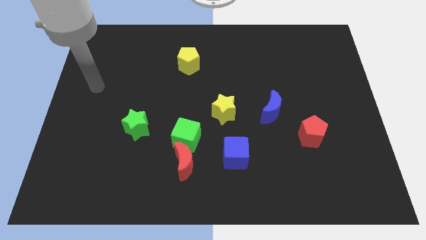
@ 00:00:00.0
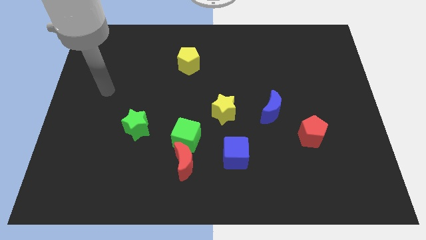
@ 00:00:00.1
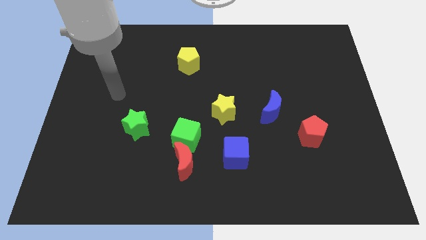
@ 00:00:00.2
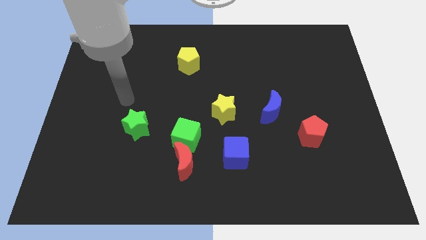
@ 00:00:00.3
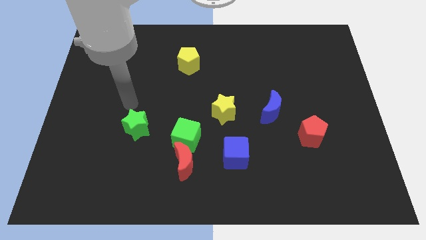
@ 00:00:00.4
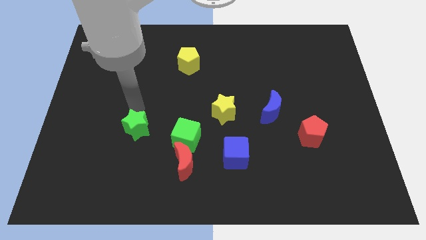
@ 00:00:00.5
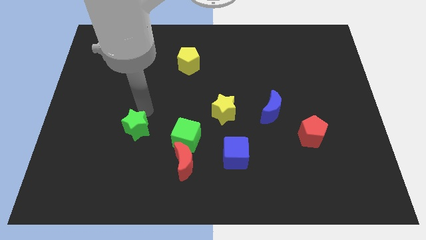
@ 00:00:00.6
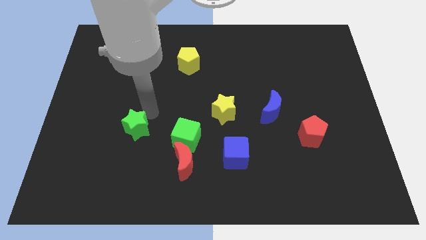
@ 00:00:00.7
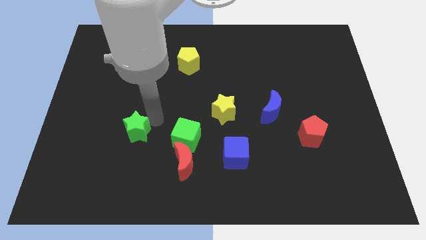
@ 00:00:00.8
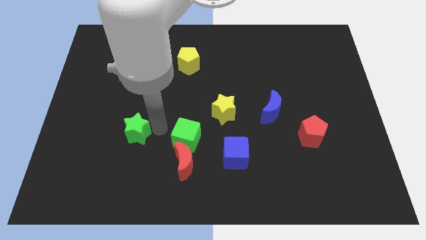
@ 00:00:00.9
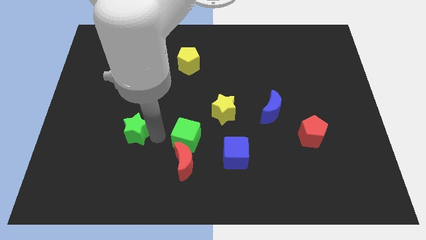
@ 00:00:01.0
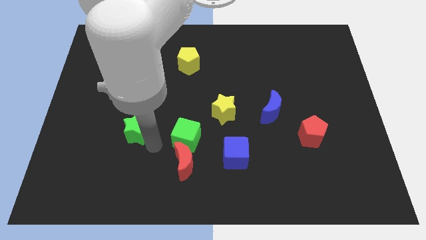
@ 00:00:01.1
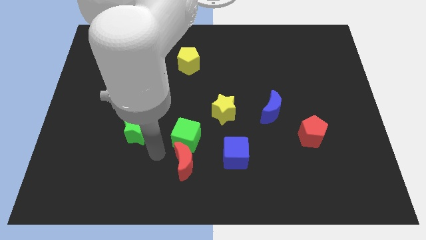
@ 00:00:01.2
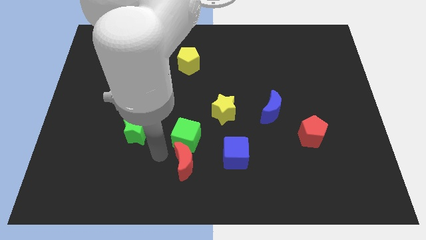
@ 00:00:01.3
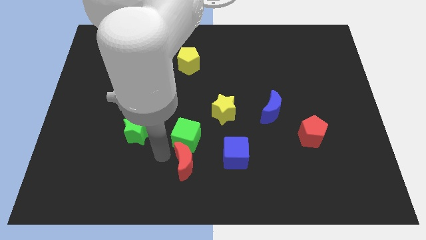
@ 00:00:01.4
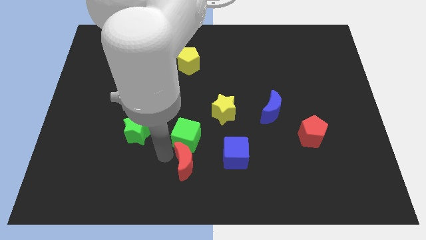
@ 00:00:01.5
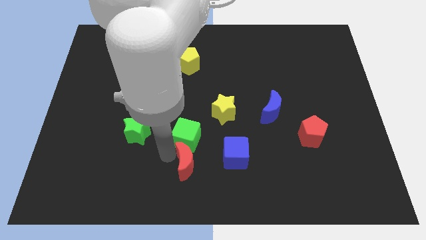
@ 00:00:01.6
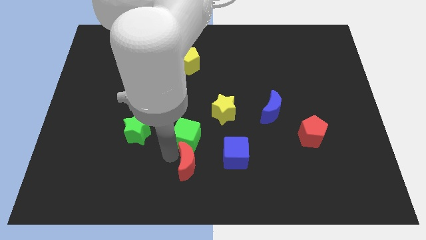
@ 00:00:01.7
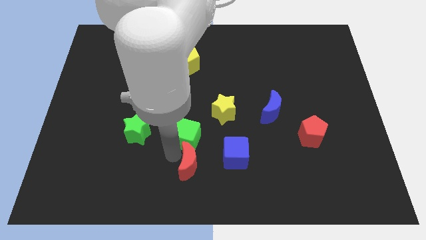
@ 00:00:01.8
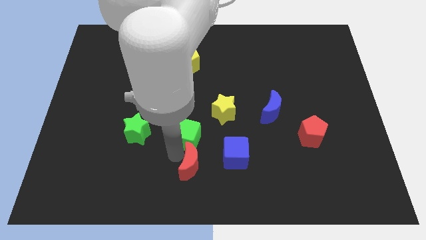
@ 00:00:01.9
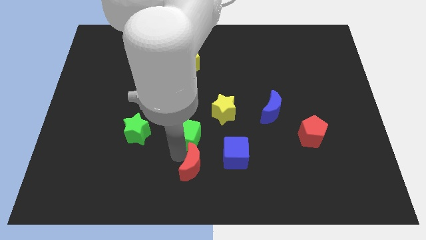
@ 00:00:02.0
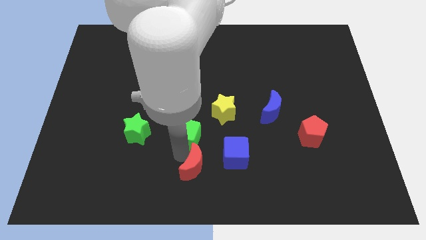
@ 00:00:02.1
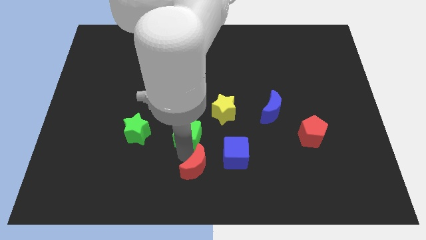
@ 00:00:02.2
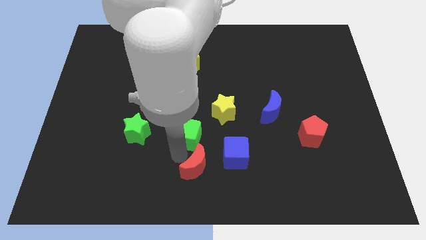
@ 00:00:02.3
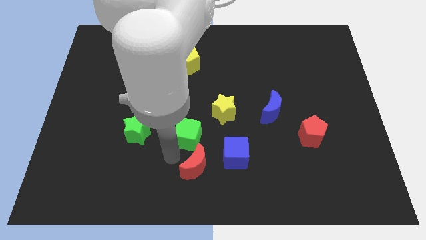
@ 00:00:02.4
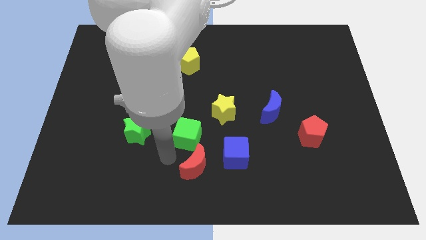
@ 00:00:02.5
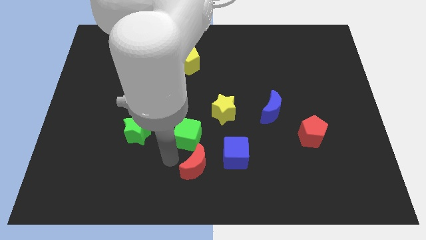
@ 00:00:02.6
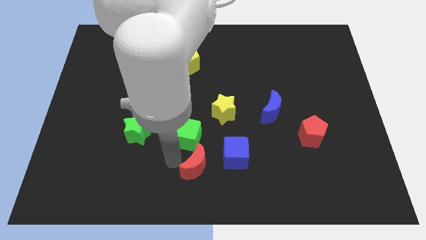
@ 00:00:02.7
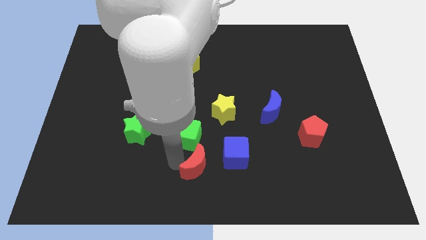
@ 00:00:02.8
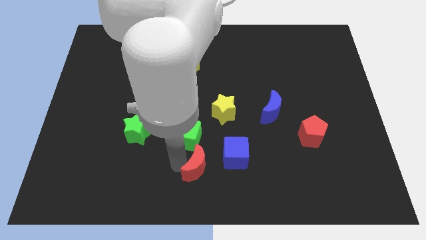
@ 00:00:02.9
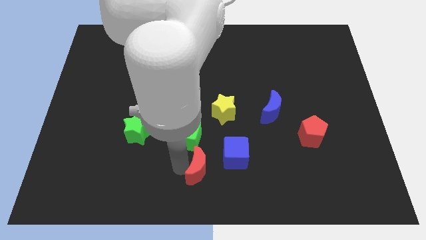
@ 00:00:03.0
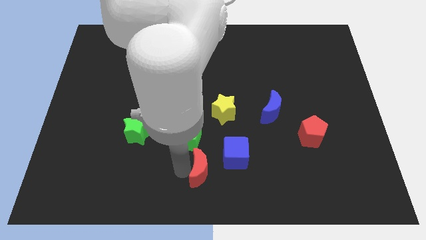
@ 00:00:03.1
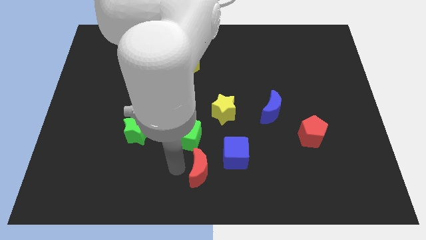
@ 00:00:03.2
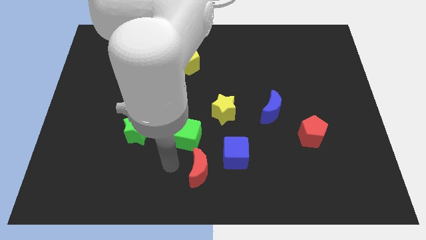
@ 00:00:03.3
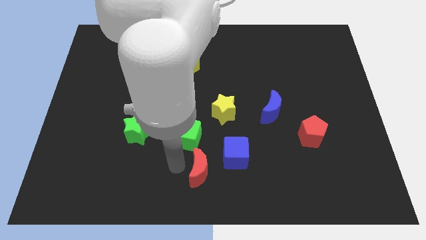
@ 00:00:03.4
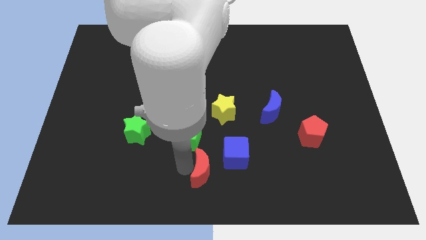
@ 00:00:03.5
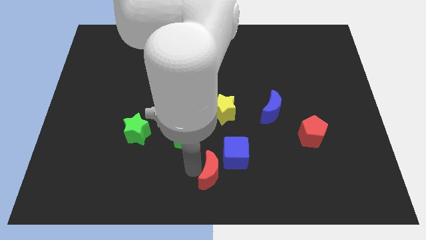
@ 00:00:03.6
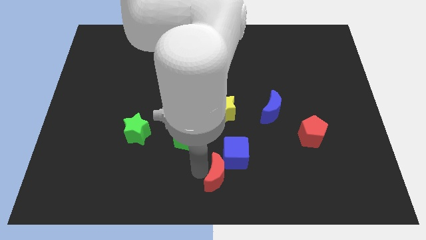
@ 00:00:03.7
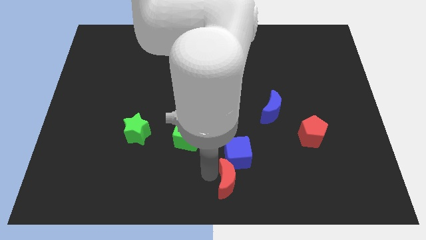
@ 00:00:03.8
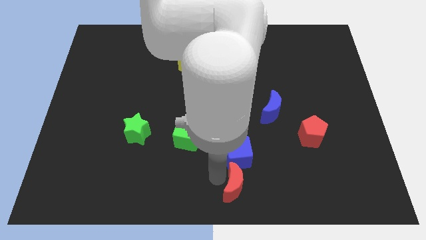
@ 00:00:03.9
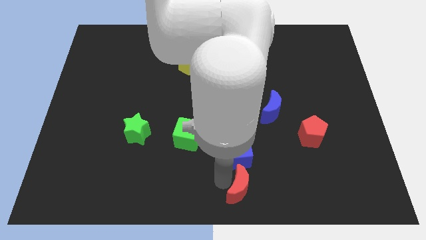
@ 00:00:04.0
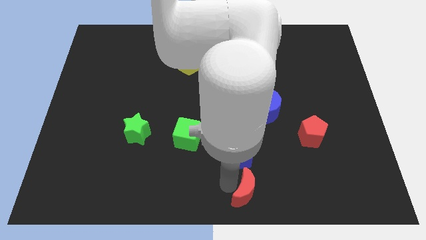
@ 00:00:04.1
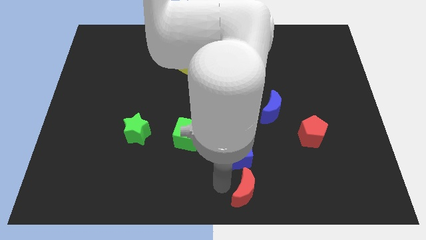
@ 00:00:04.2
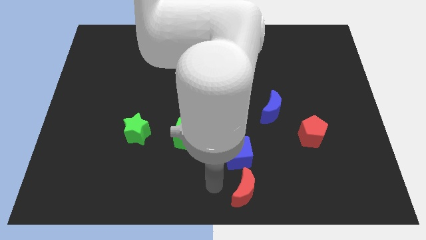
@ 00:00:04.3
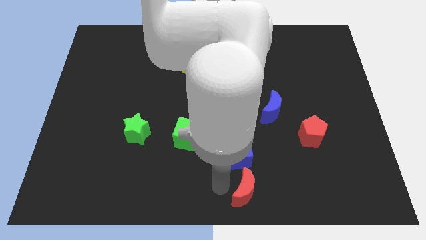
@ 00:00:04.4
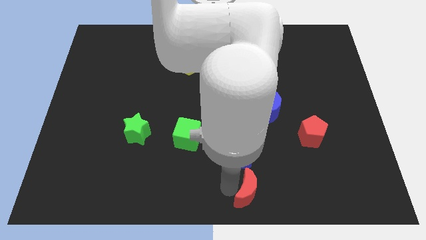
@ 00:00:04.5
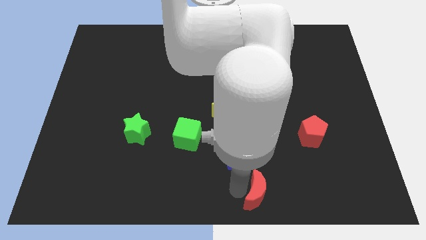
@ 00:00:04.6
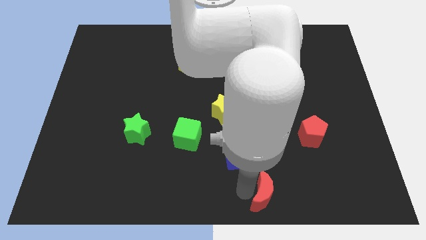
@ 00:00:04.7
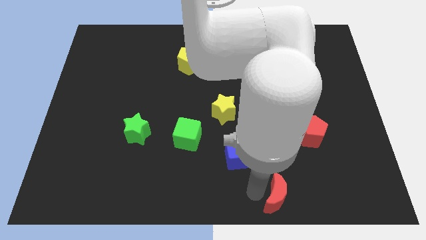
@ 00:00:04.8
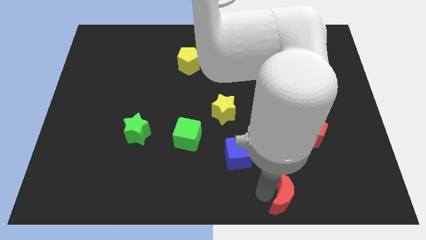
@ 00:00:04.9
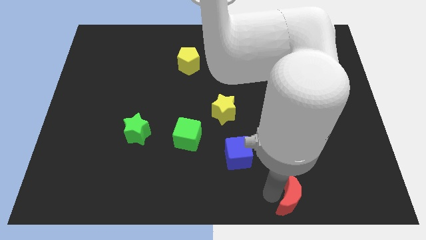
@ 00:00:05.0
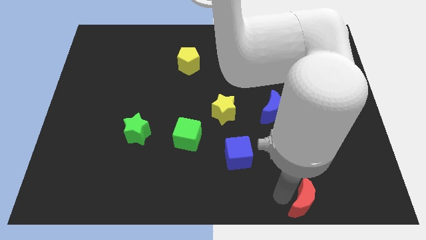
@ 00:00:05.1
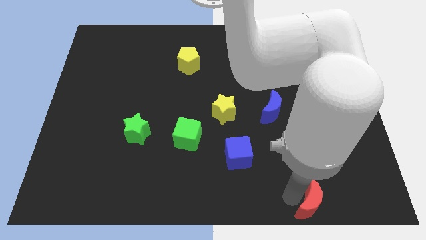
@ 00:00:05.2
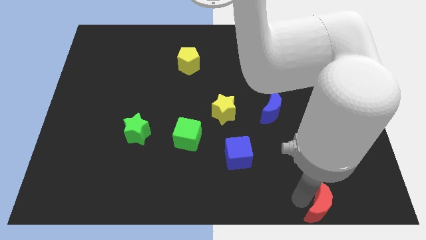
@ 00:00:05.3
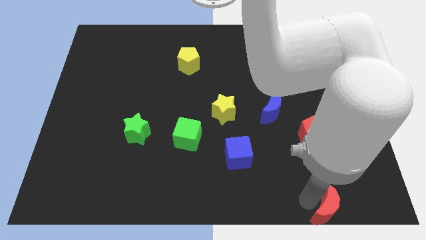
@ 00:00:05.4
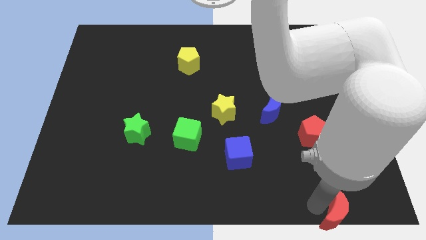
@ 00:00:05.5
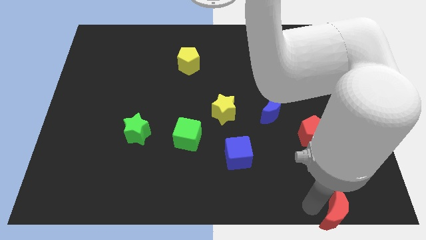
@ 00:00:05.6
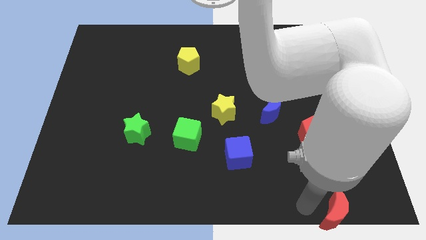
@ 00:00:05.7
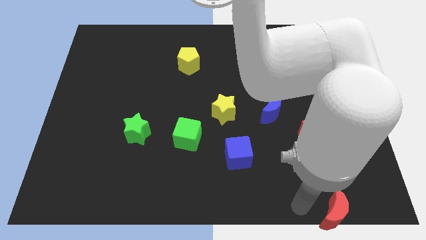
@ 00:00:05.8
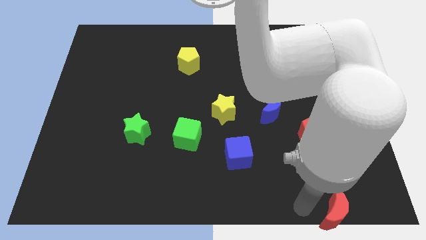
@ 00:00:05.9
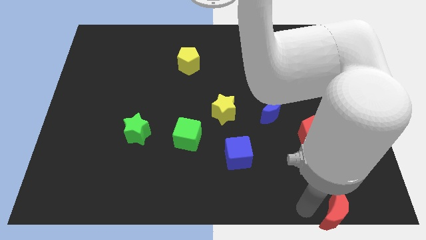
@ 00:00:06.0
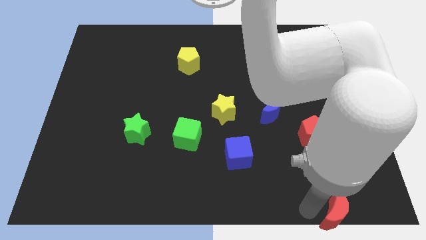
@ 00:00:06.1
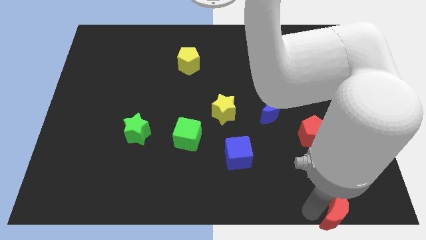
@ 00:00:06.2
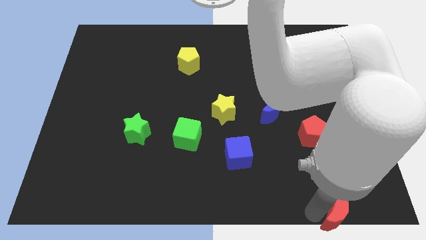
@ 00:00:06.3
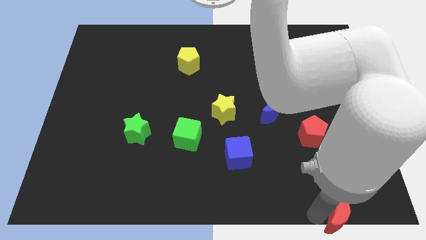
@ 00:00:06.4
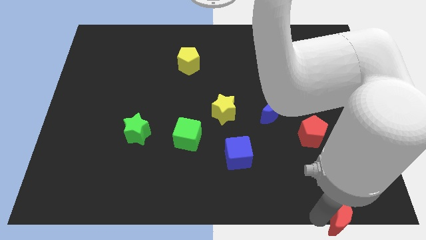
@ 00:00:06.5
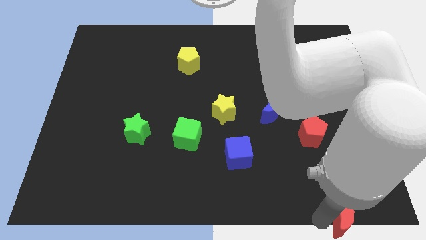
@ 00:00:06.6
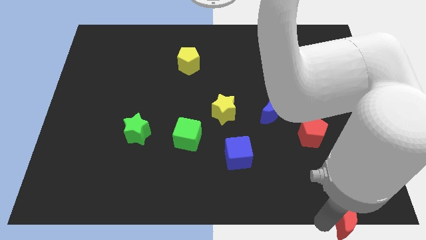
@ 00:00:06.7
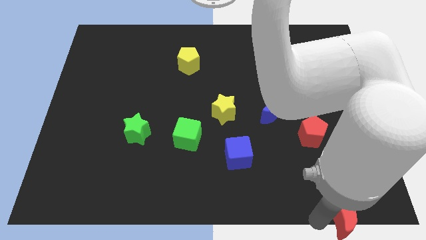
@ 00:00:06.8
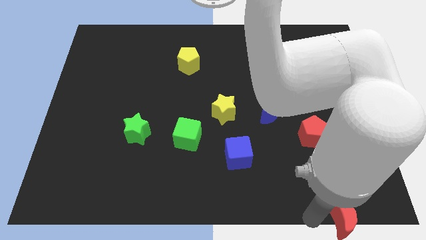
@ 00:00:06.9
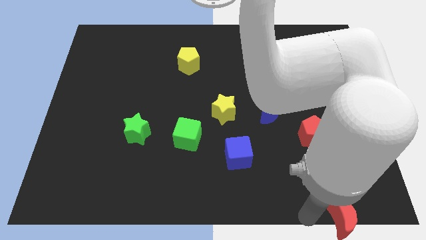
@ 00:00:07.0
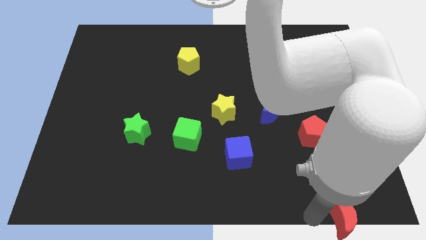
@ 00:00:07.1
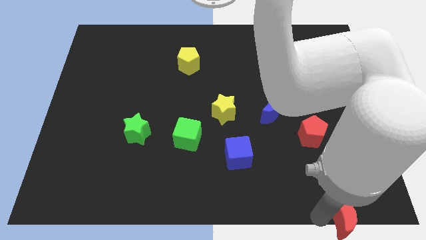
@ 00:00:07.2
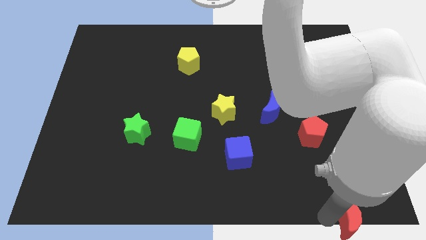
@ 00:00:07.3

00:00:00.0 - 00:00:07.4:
slide the red moon to the lower right corner
